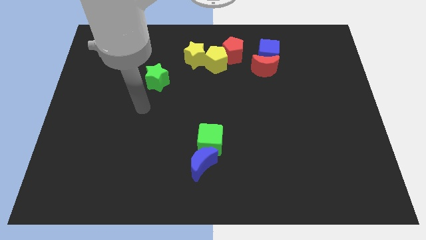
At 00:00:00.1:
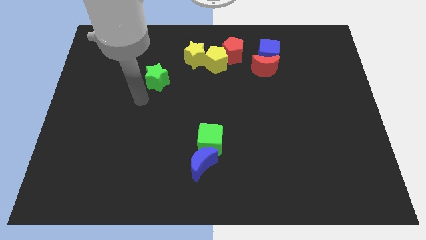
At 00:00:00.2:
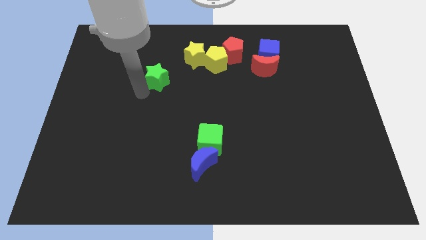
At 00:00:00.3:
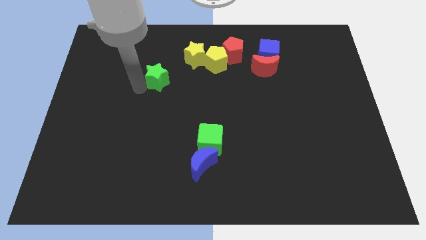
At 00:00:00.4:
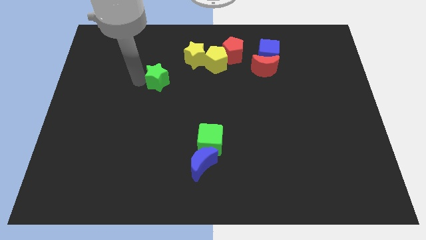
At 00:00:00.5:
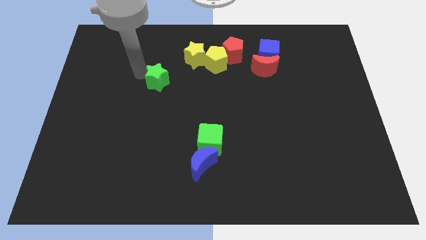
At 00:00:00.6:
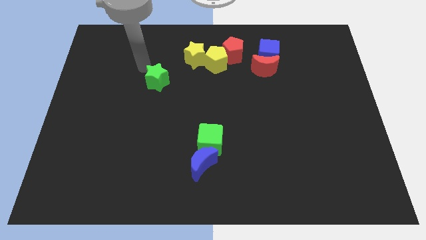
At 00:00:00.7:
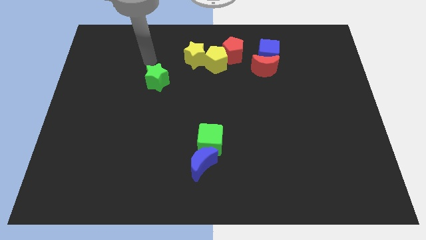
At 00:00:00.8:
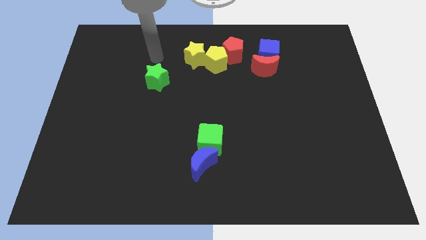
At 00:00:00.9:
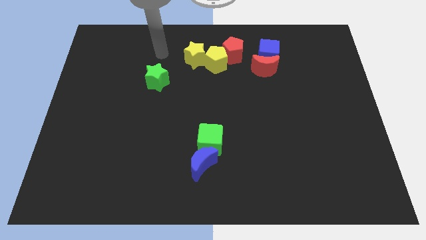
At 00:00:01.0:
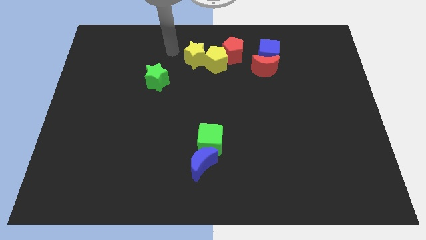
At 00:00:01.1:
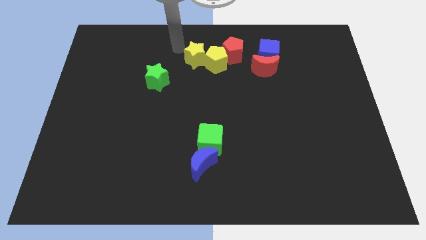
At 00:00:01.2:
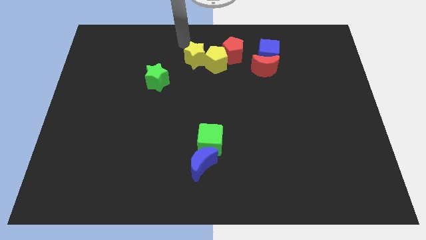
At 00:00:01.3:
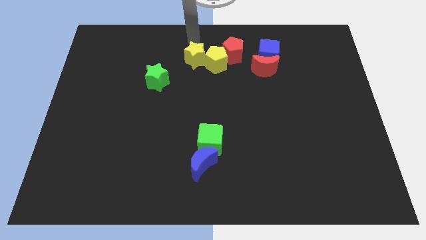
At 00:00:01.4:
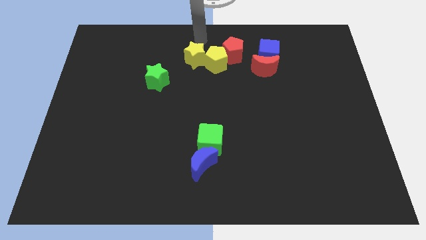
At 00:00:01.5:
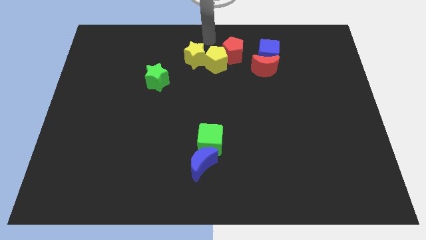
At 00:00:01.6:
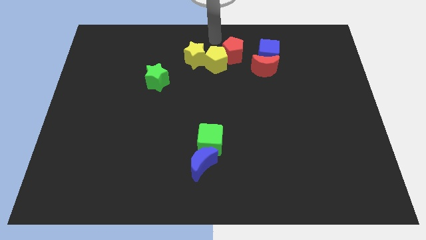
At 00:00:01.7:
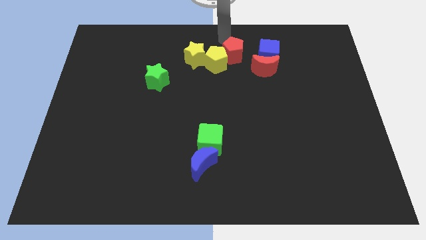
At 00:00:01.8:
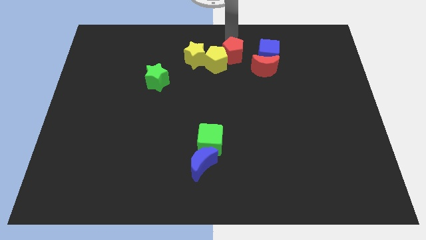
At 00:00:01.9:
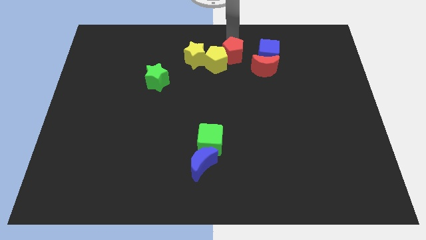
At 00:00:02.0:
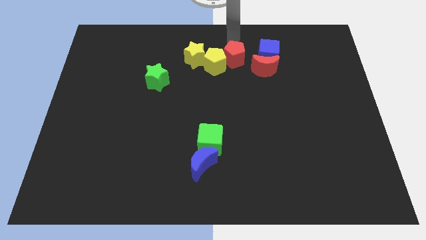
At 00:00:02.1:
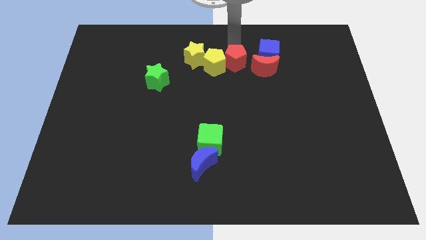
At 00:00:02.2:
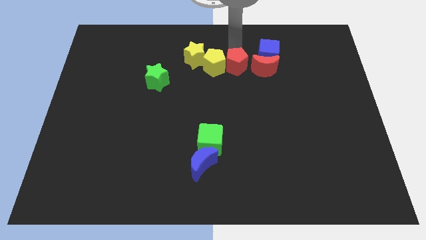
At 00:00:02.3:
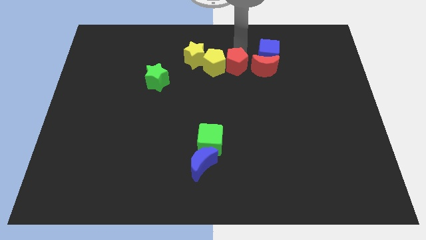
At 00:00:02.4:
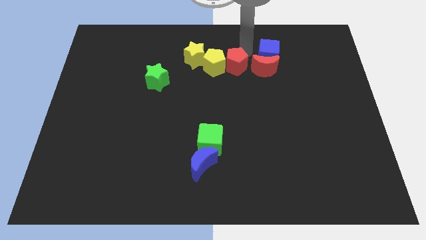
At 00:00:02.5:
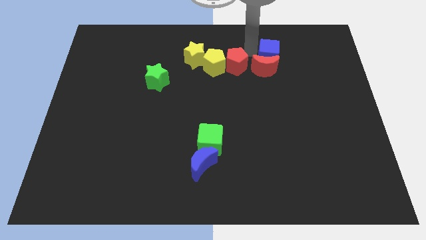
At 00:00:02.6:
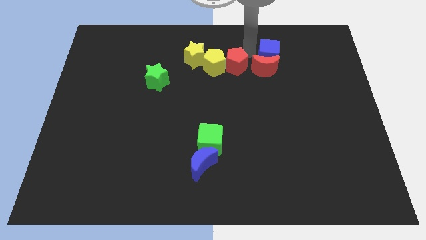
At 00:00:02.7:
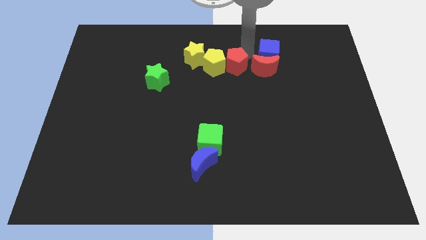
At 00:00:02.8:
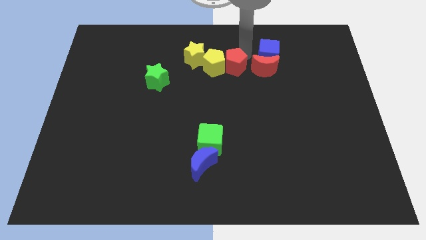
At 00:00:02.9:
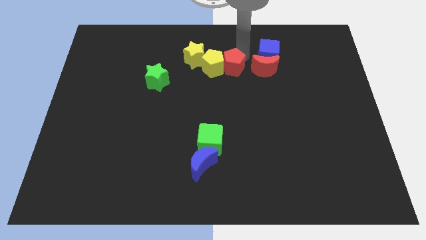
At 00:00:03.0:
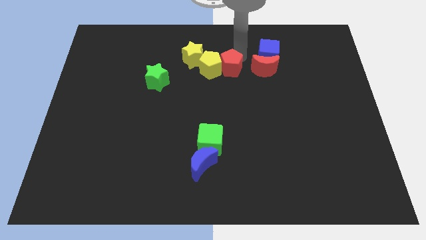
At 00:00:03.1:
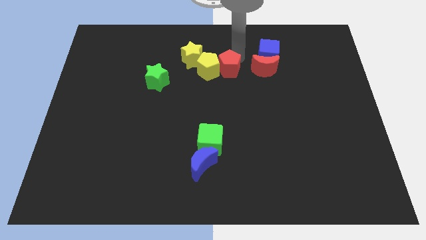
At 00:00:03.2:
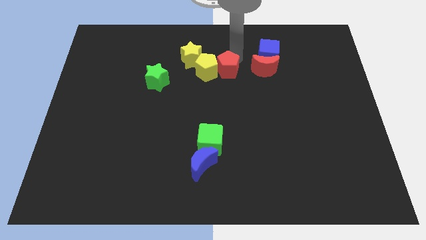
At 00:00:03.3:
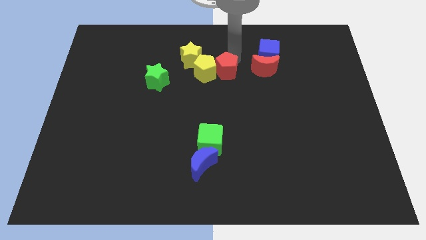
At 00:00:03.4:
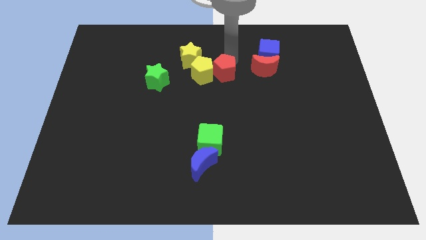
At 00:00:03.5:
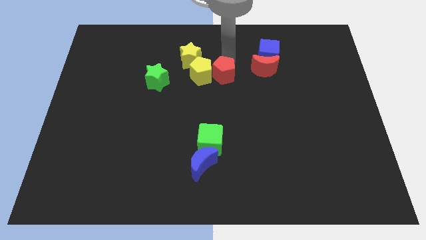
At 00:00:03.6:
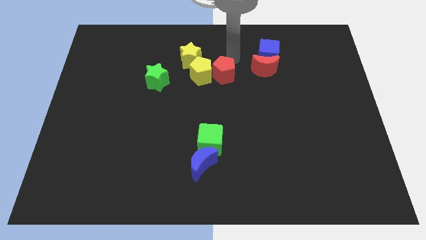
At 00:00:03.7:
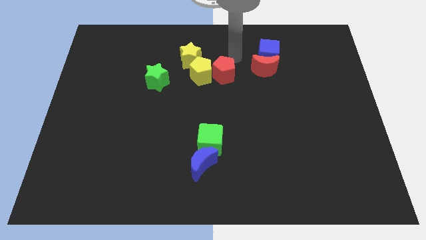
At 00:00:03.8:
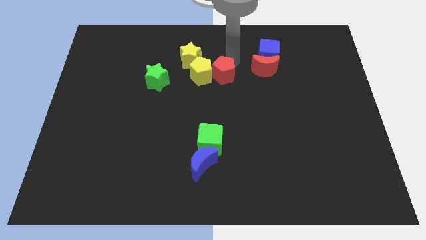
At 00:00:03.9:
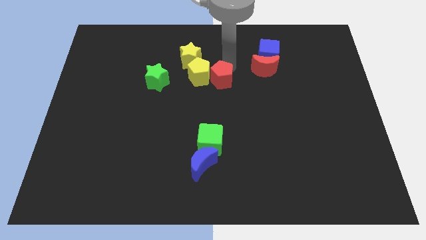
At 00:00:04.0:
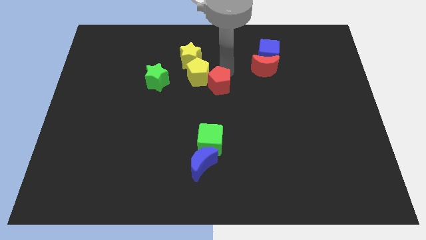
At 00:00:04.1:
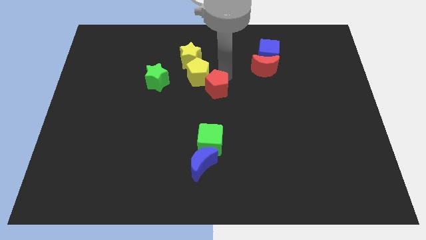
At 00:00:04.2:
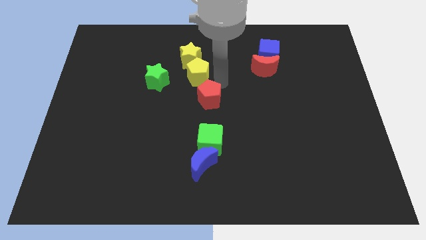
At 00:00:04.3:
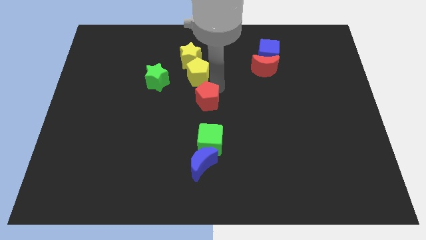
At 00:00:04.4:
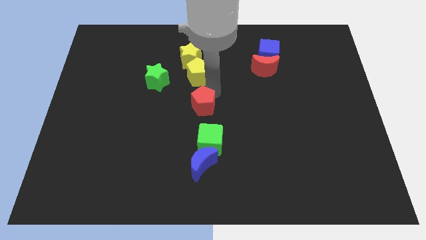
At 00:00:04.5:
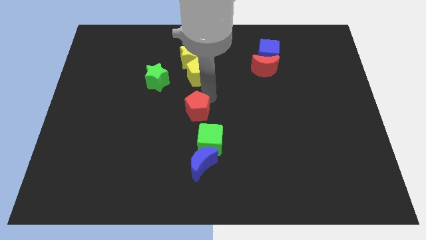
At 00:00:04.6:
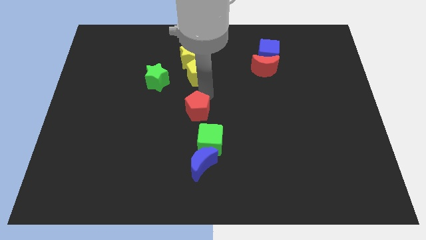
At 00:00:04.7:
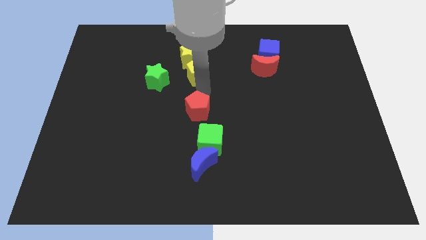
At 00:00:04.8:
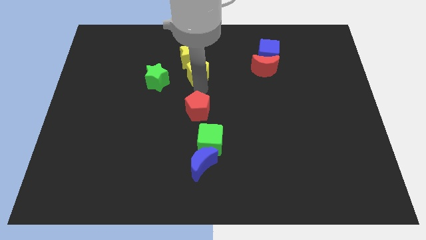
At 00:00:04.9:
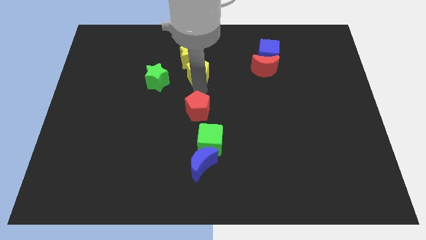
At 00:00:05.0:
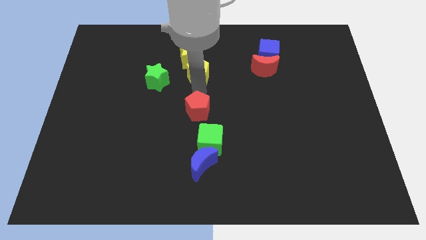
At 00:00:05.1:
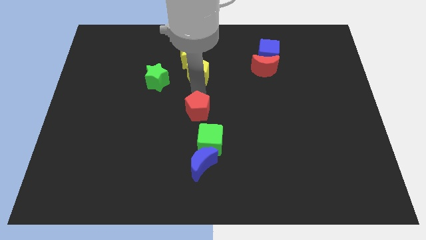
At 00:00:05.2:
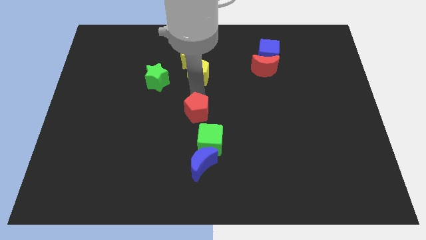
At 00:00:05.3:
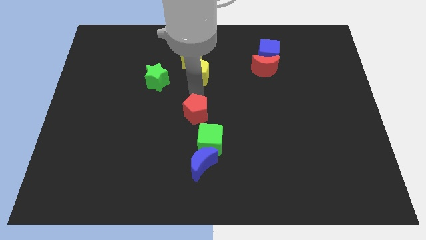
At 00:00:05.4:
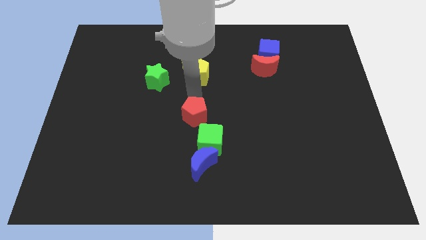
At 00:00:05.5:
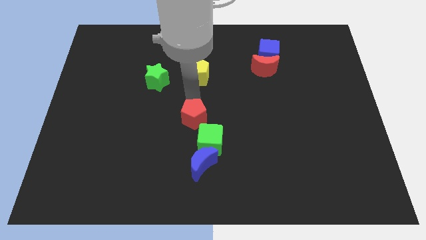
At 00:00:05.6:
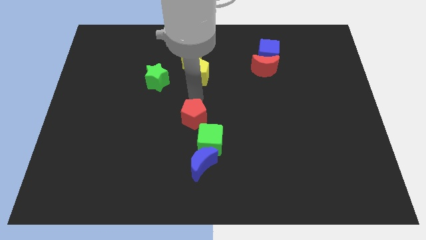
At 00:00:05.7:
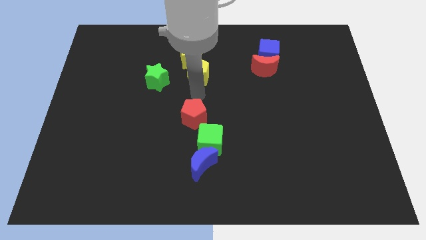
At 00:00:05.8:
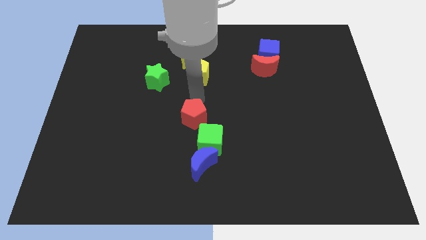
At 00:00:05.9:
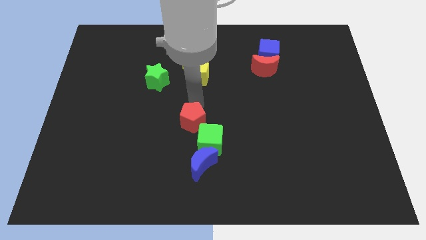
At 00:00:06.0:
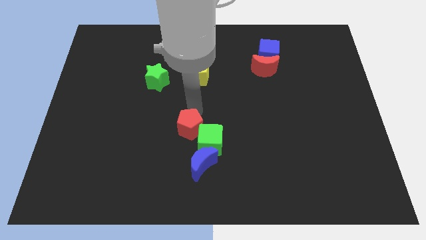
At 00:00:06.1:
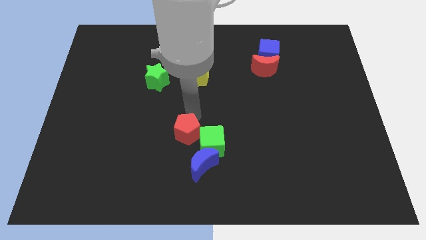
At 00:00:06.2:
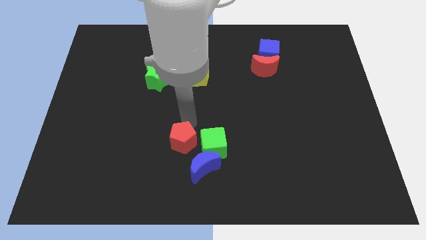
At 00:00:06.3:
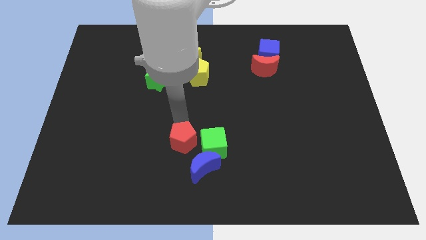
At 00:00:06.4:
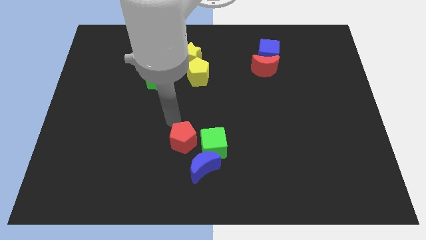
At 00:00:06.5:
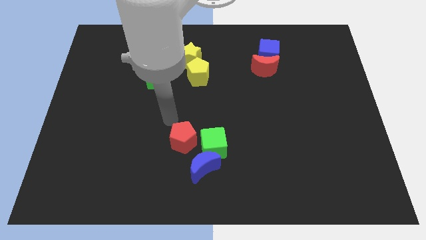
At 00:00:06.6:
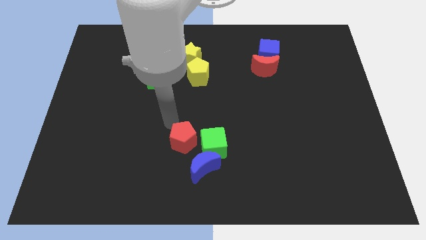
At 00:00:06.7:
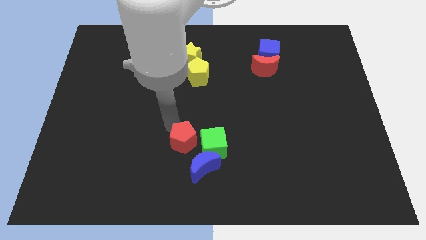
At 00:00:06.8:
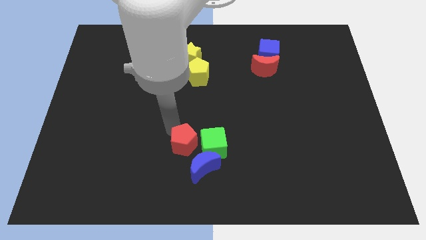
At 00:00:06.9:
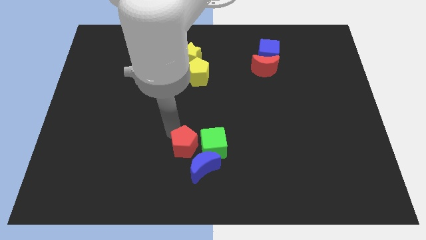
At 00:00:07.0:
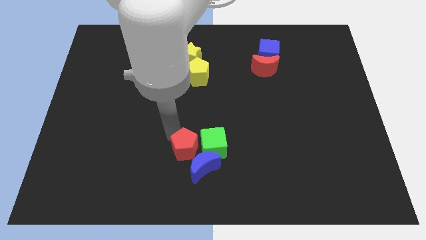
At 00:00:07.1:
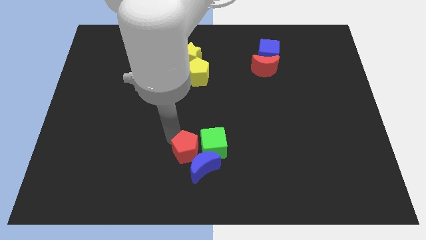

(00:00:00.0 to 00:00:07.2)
put the red pentagon close to the blue moon
